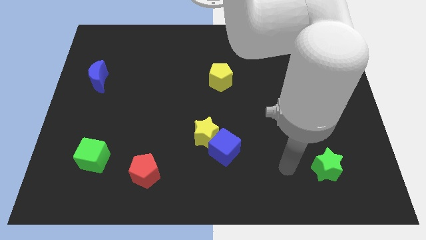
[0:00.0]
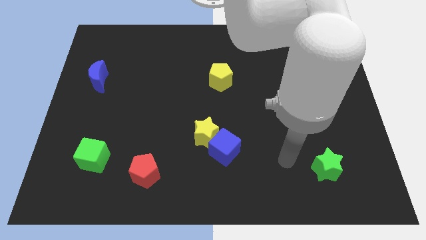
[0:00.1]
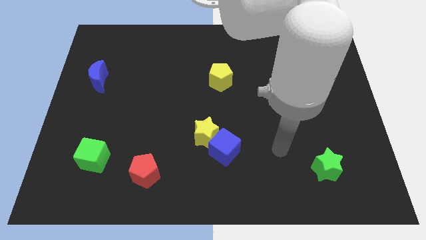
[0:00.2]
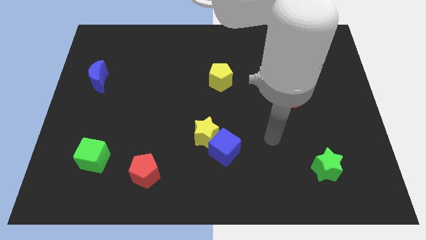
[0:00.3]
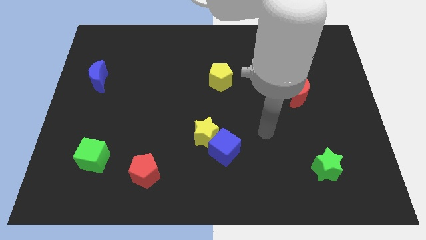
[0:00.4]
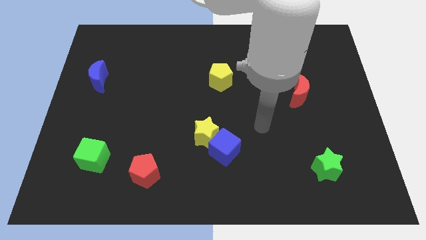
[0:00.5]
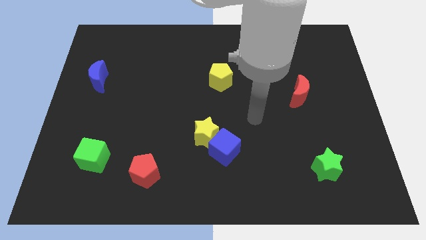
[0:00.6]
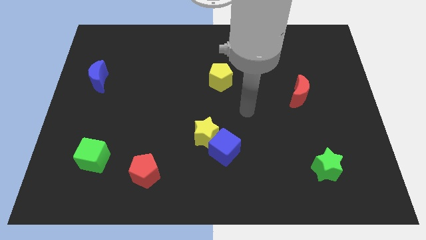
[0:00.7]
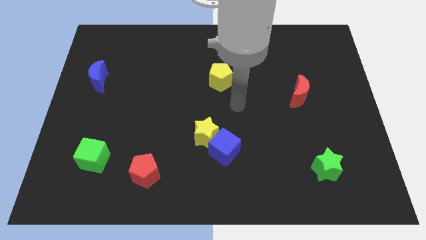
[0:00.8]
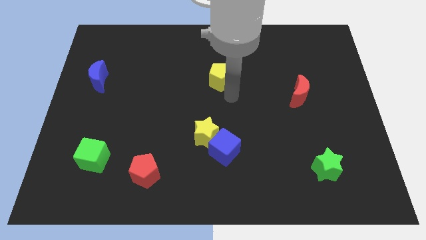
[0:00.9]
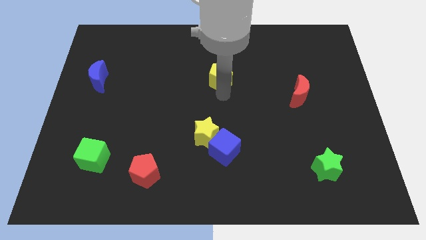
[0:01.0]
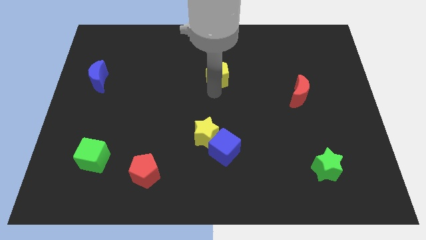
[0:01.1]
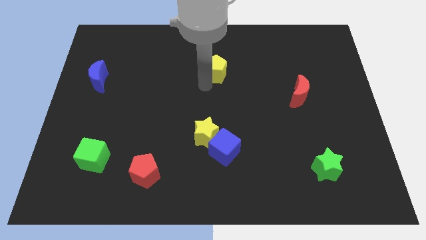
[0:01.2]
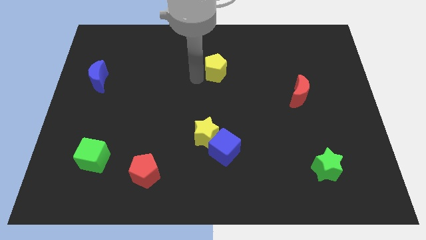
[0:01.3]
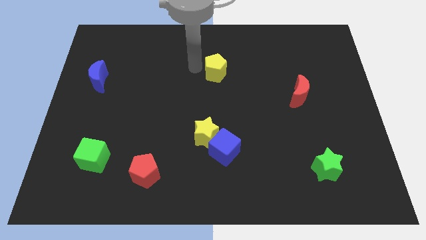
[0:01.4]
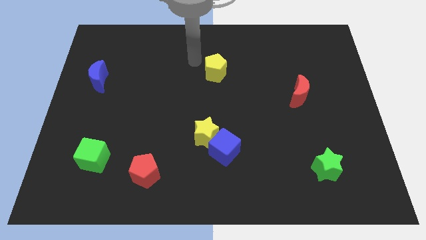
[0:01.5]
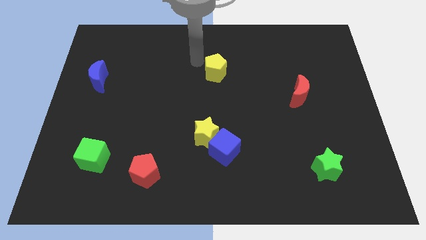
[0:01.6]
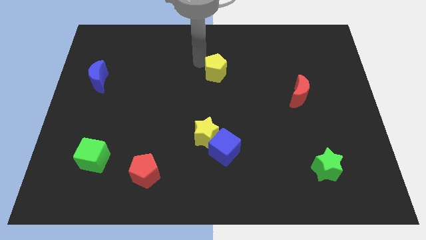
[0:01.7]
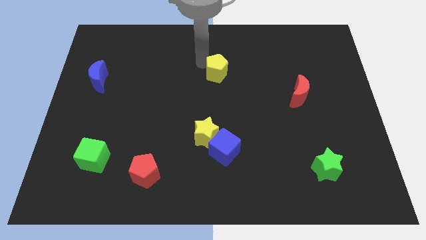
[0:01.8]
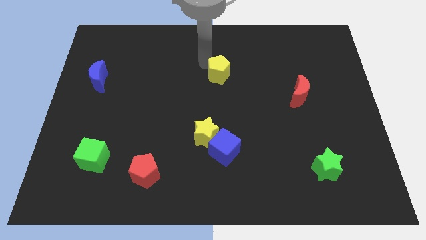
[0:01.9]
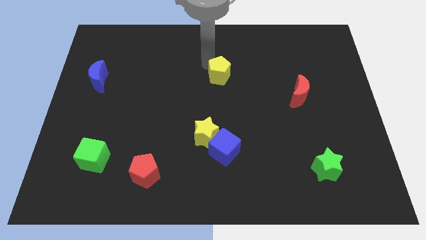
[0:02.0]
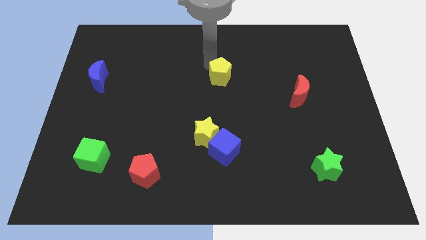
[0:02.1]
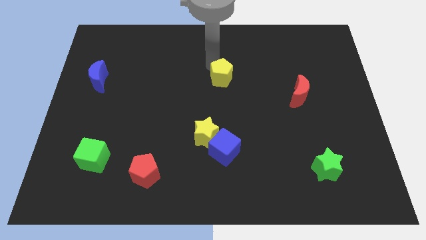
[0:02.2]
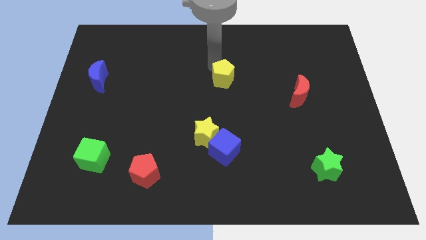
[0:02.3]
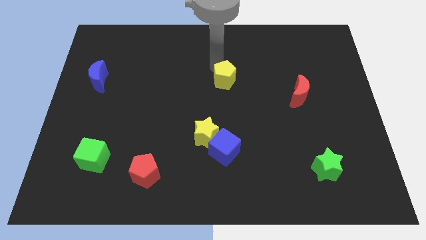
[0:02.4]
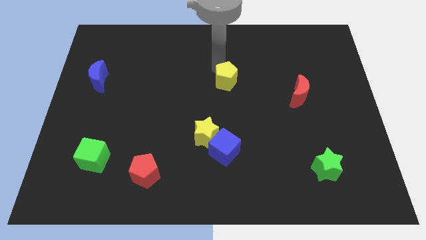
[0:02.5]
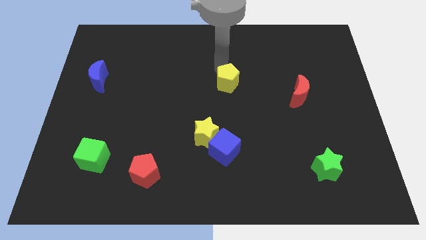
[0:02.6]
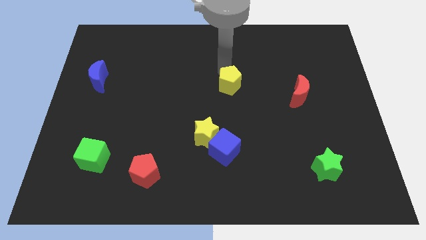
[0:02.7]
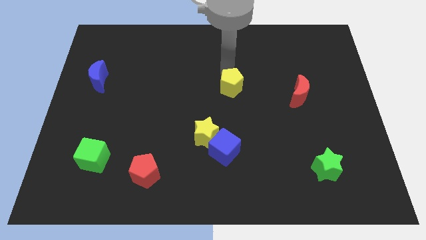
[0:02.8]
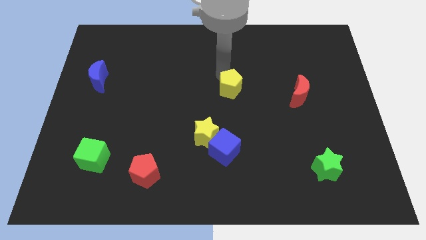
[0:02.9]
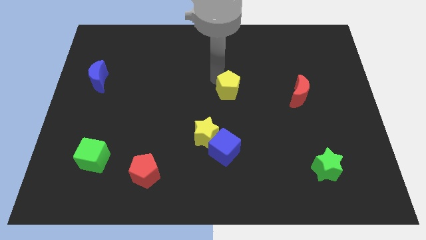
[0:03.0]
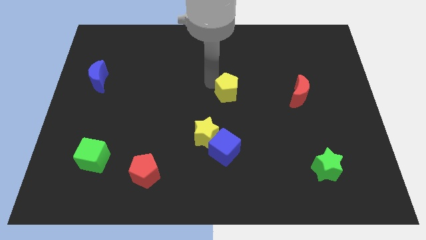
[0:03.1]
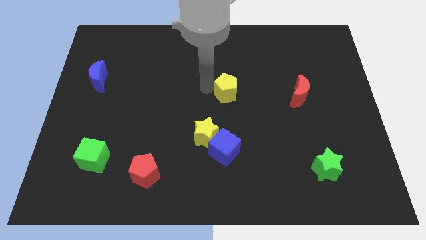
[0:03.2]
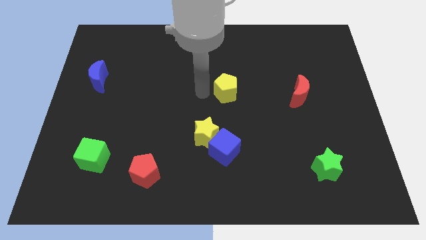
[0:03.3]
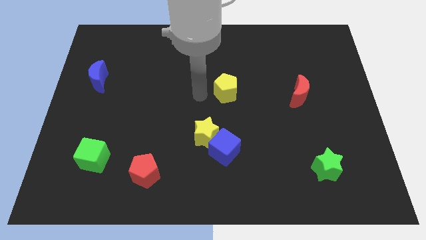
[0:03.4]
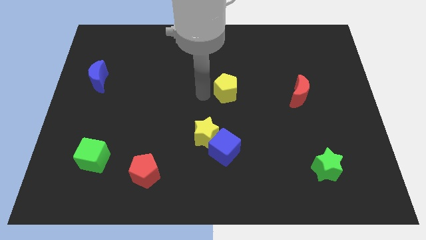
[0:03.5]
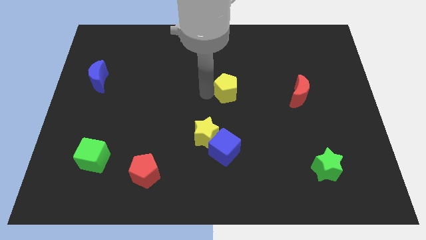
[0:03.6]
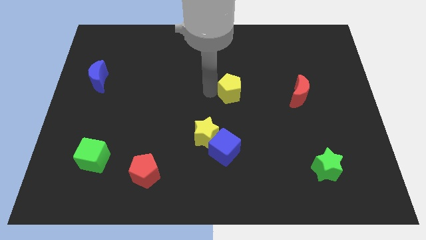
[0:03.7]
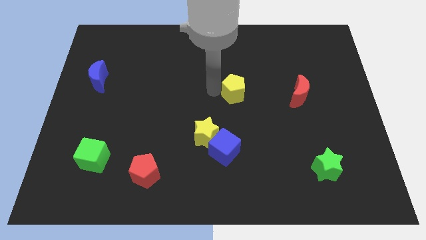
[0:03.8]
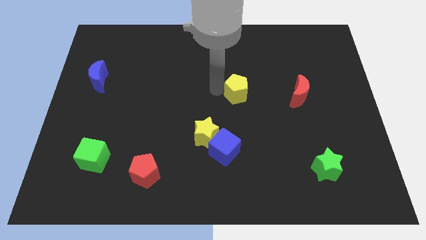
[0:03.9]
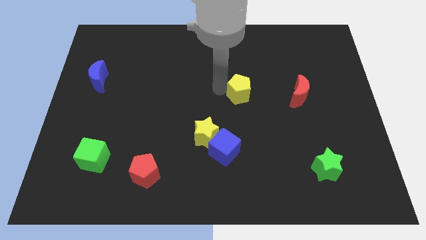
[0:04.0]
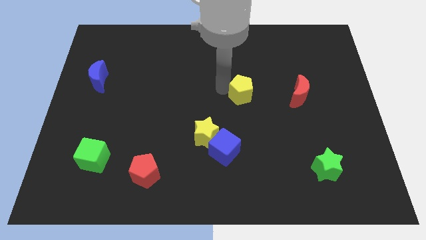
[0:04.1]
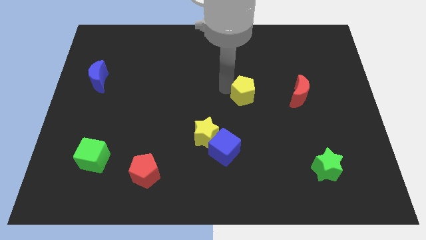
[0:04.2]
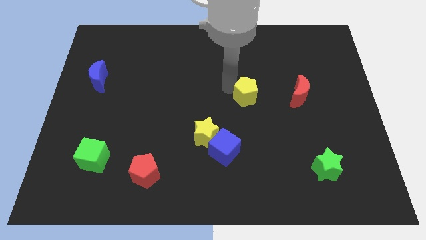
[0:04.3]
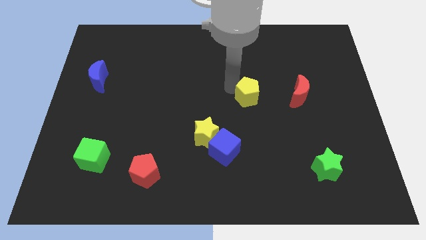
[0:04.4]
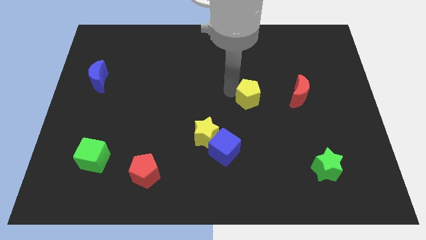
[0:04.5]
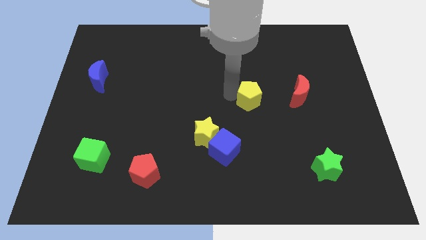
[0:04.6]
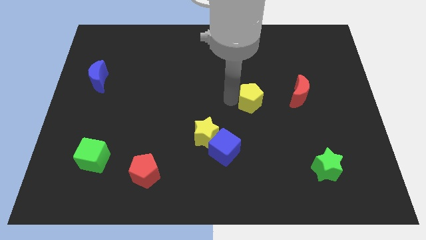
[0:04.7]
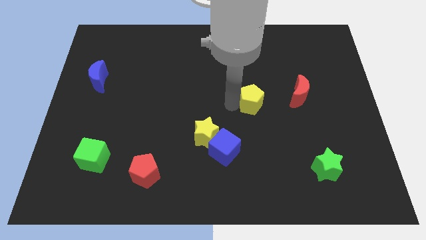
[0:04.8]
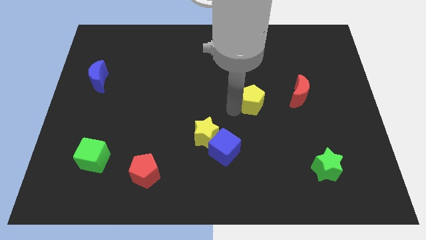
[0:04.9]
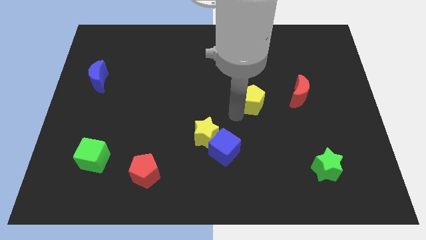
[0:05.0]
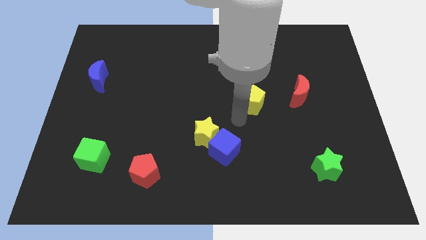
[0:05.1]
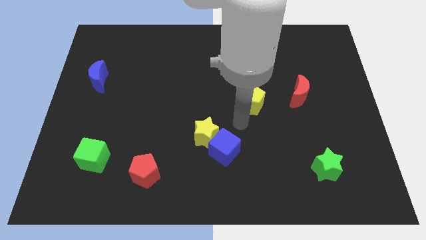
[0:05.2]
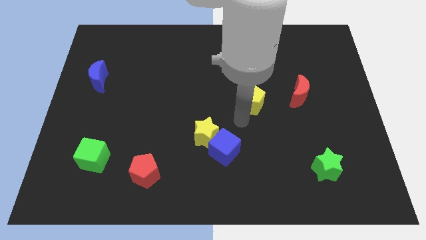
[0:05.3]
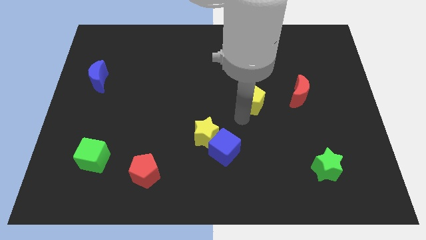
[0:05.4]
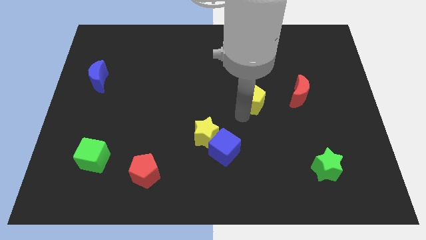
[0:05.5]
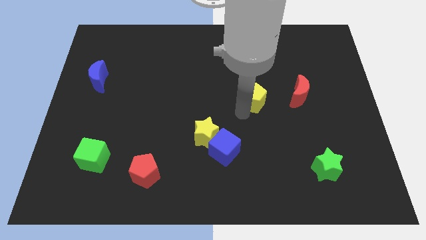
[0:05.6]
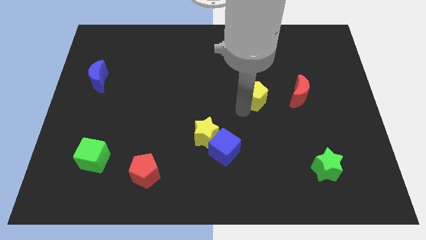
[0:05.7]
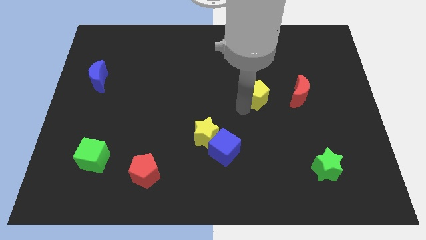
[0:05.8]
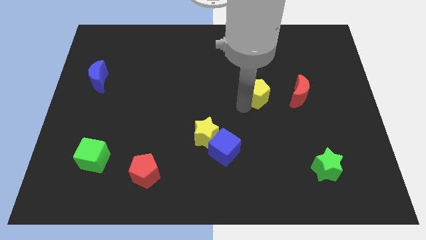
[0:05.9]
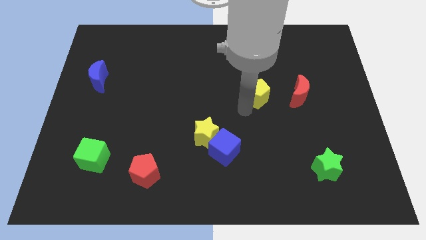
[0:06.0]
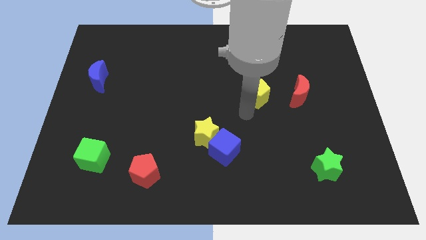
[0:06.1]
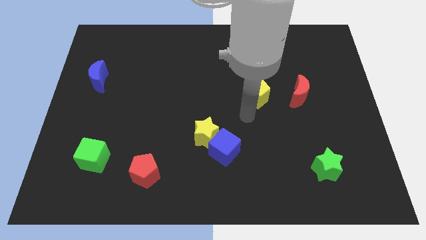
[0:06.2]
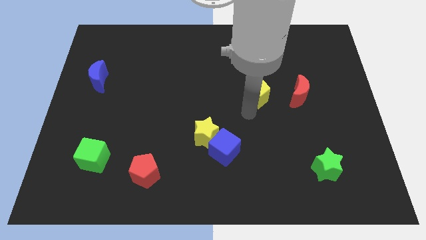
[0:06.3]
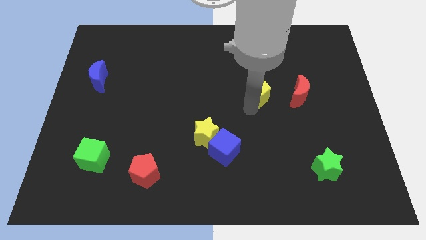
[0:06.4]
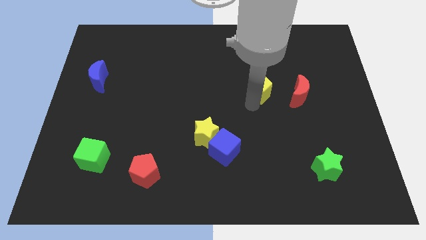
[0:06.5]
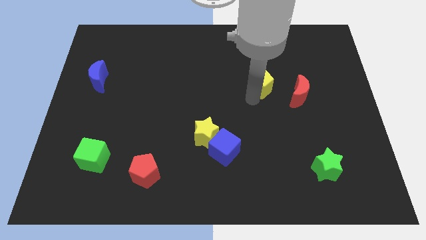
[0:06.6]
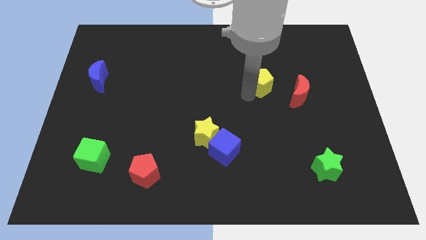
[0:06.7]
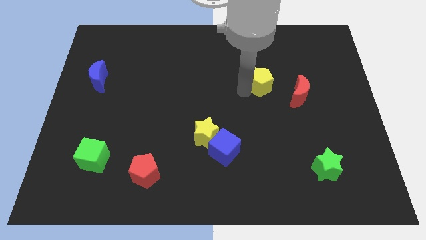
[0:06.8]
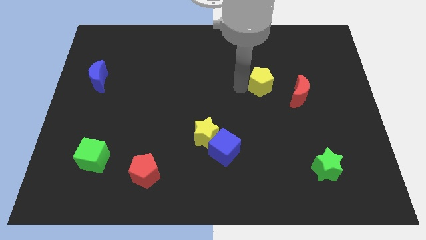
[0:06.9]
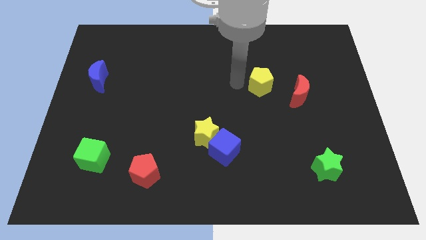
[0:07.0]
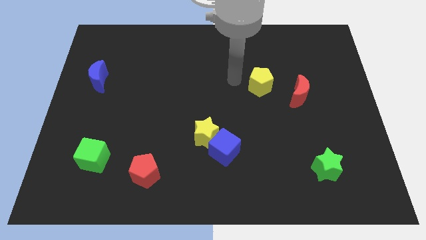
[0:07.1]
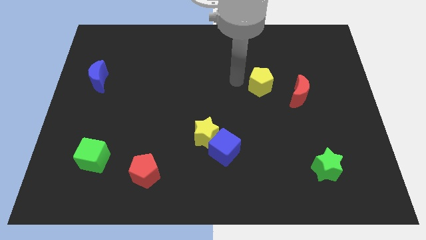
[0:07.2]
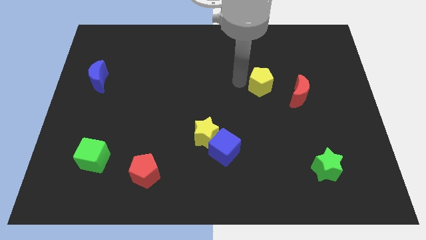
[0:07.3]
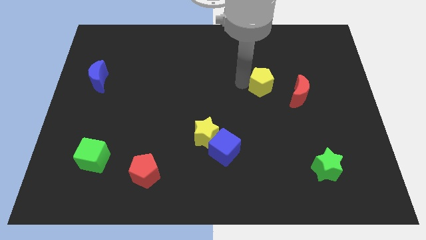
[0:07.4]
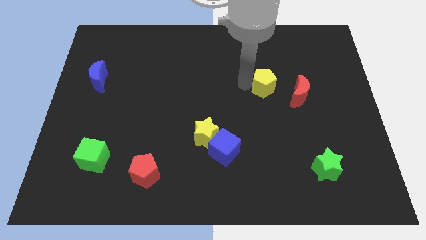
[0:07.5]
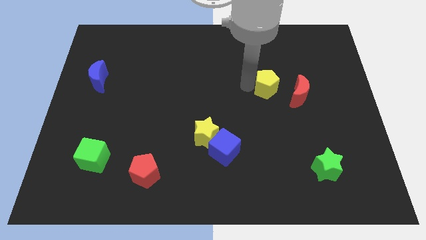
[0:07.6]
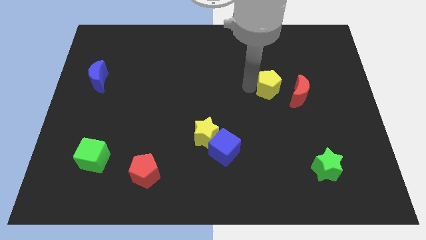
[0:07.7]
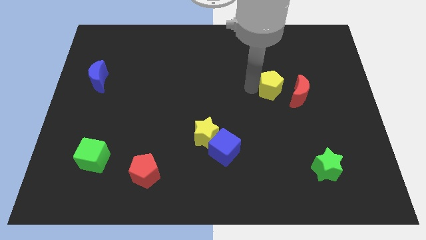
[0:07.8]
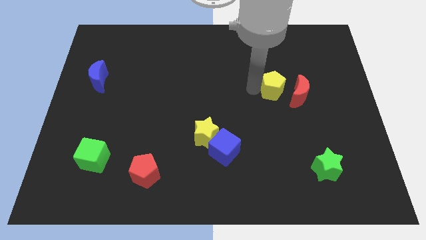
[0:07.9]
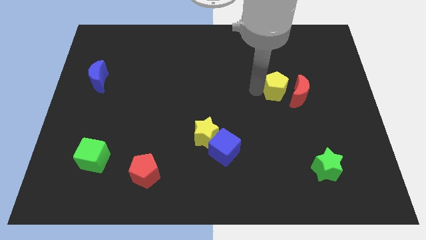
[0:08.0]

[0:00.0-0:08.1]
put the yellow pentagon to the red moon
